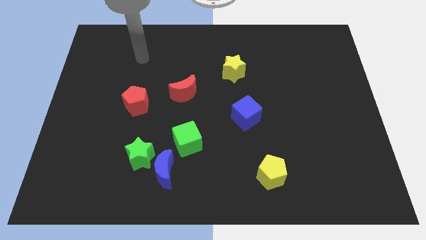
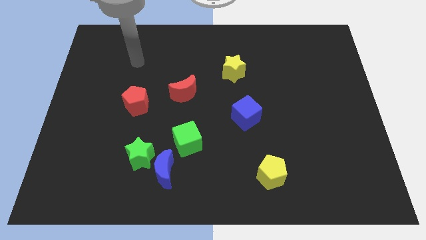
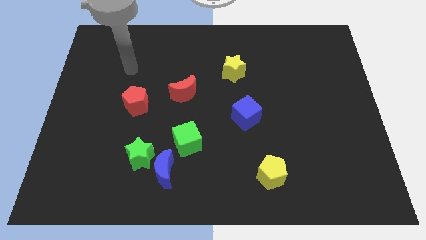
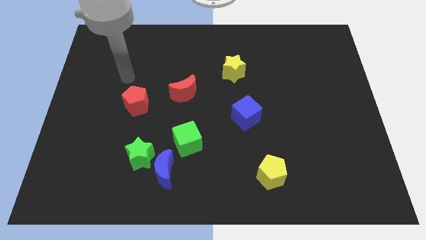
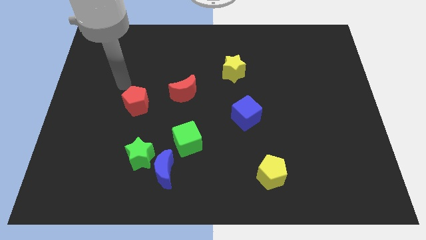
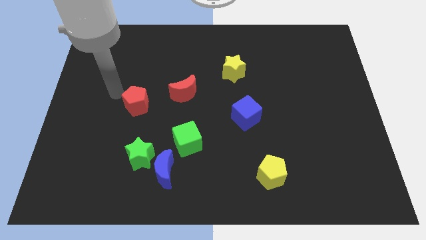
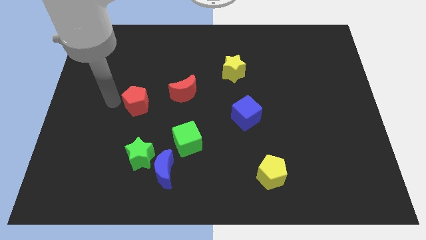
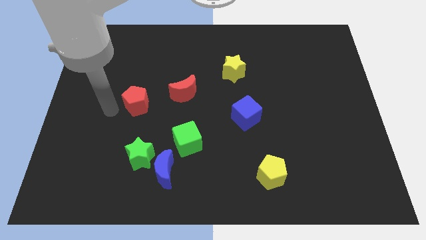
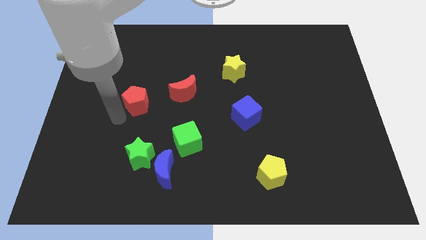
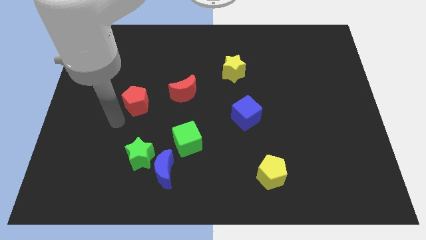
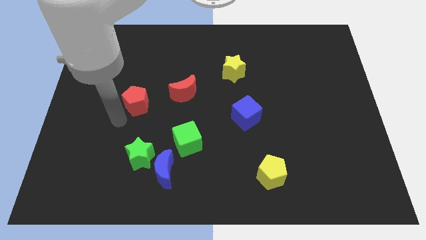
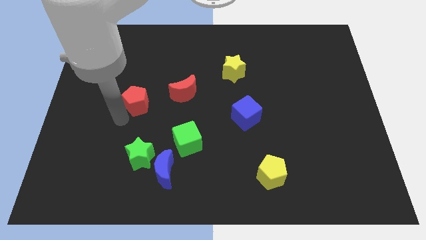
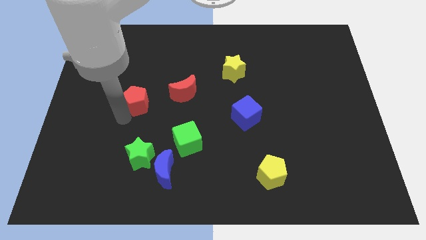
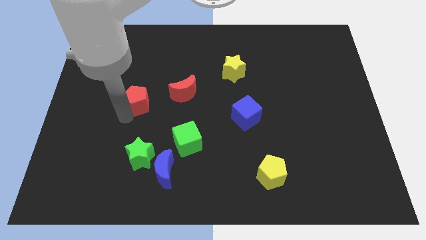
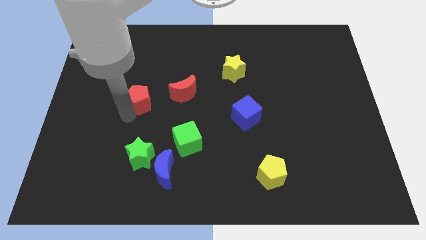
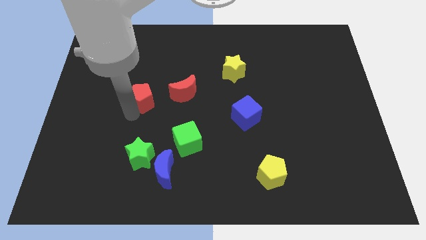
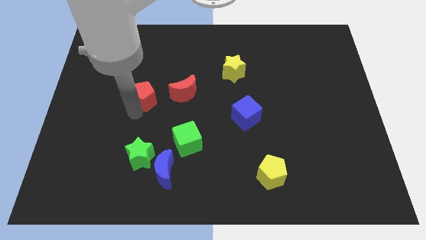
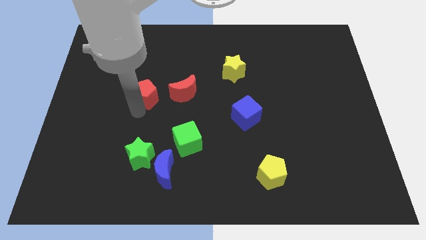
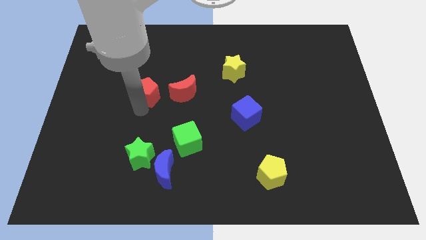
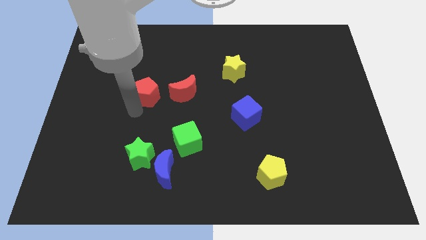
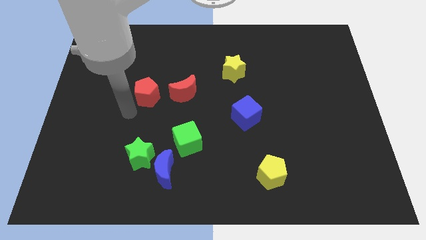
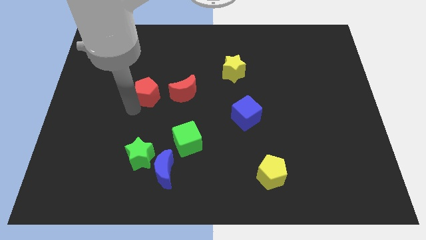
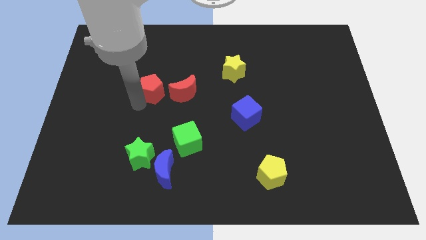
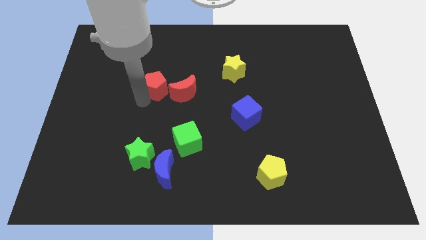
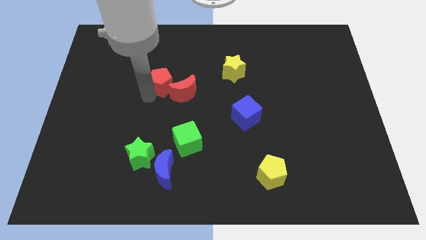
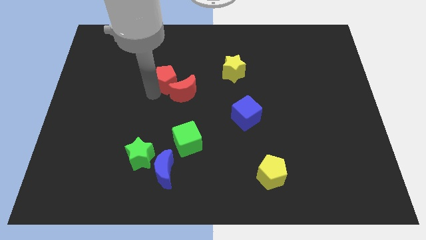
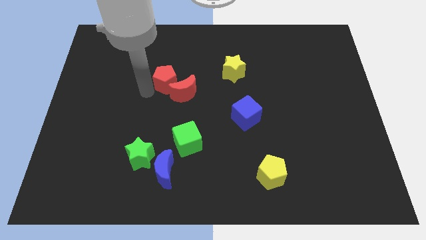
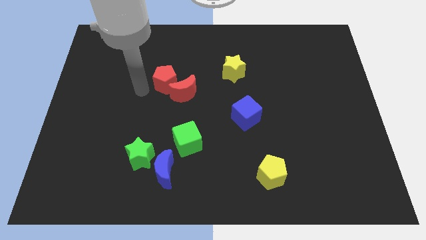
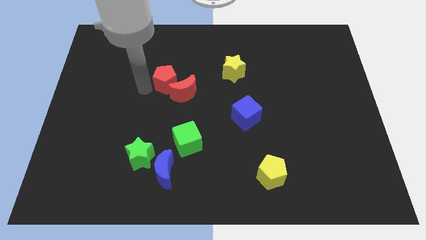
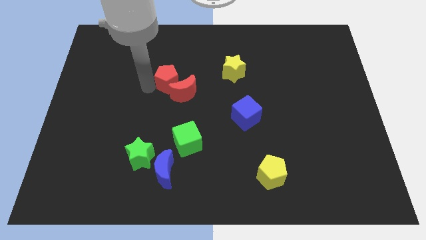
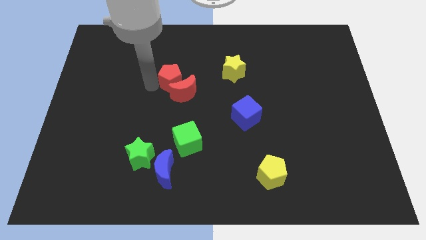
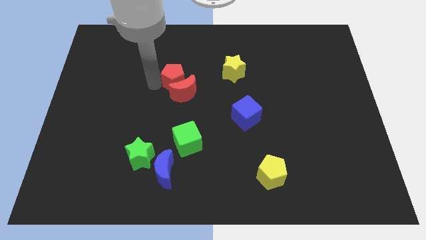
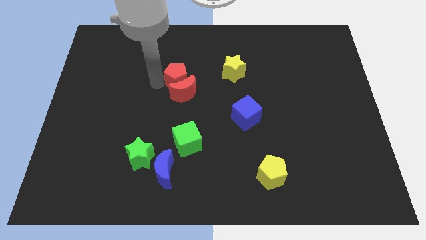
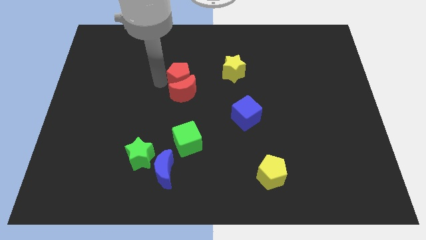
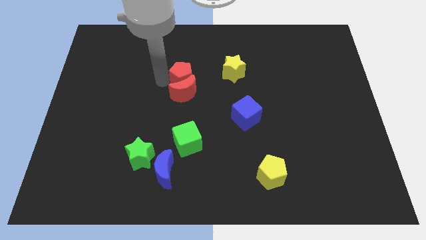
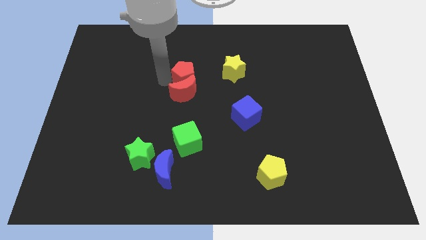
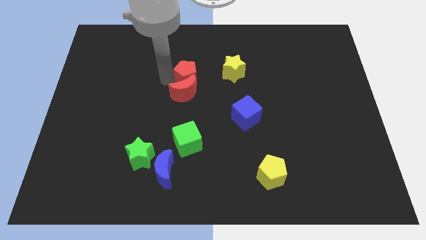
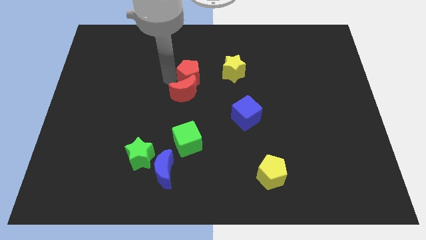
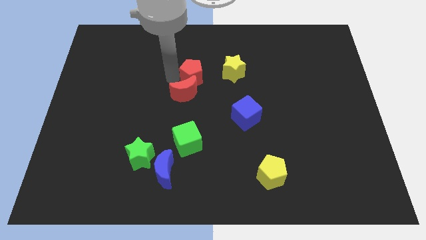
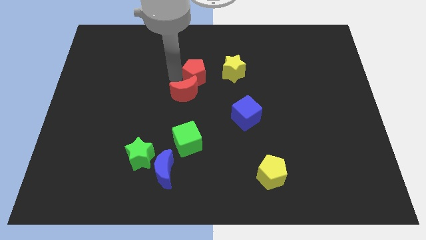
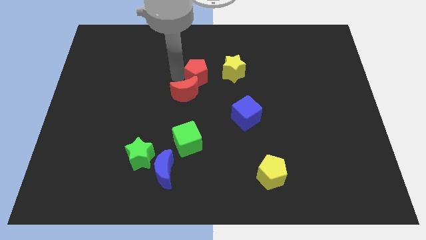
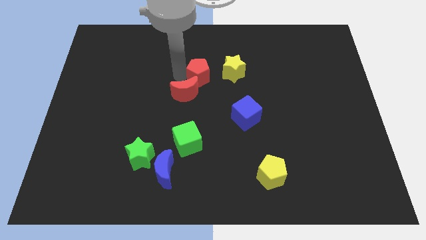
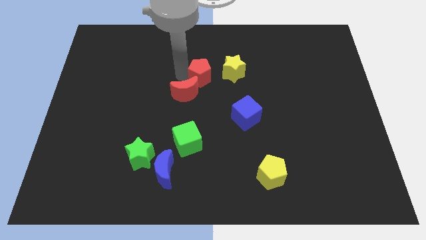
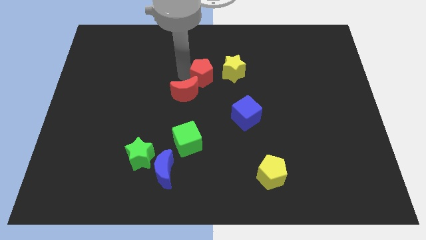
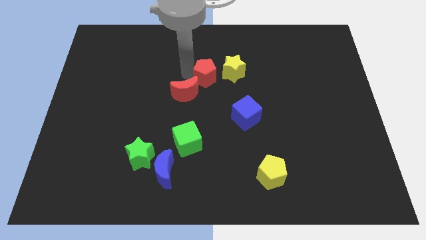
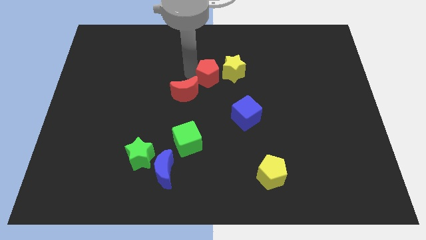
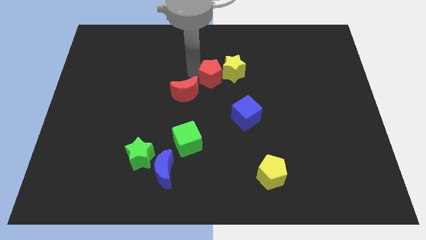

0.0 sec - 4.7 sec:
move the red pentagon next to the yellow star

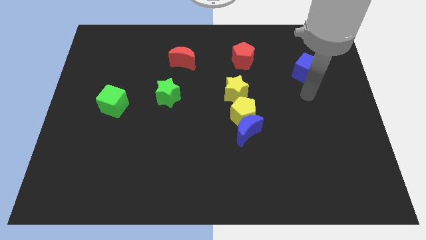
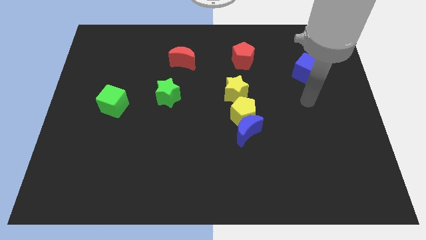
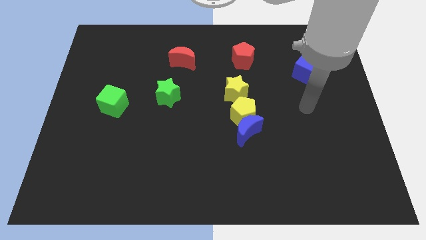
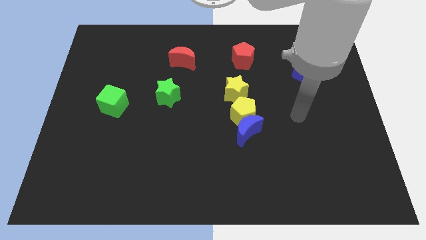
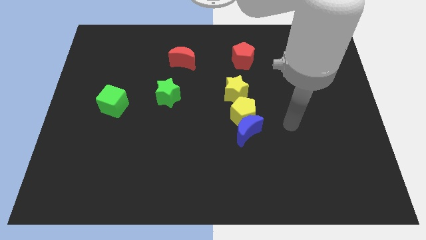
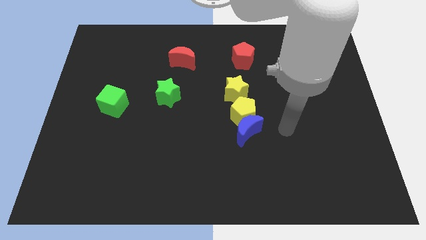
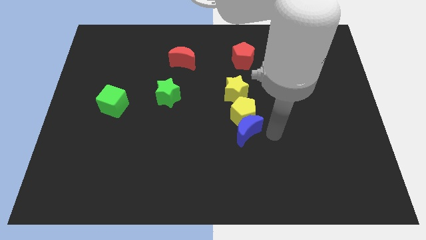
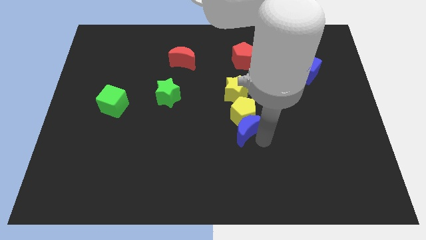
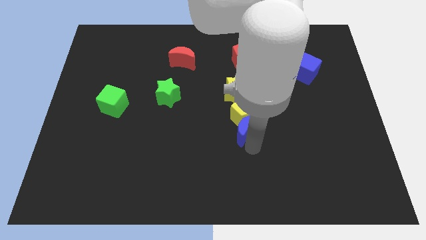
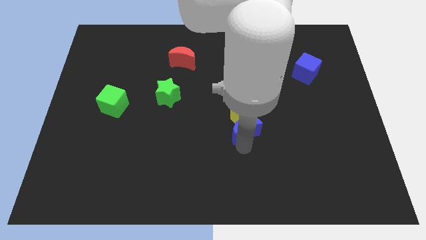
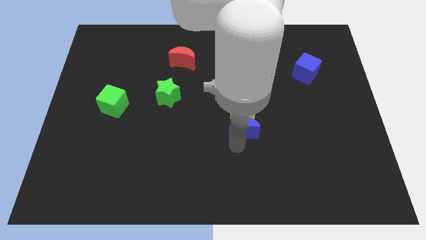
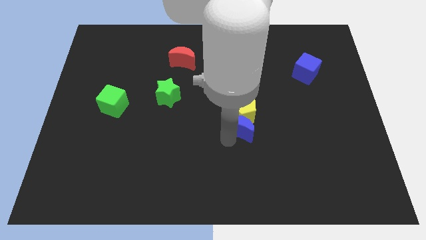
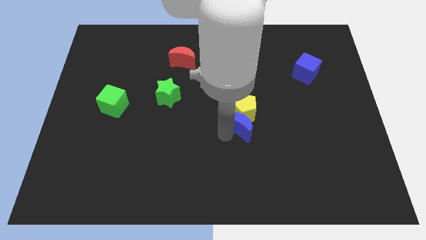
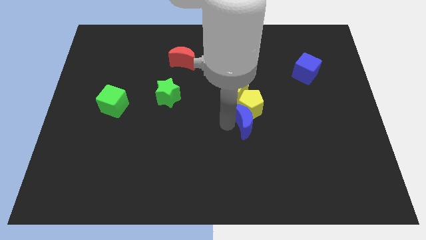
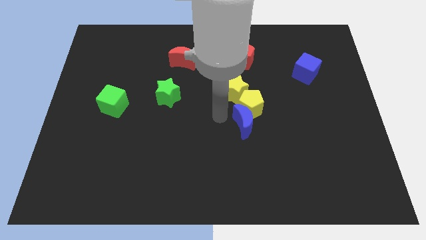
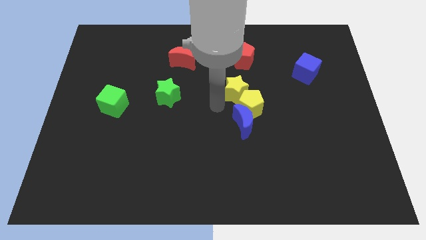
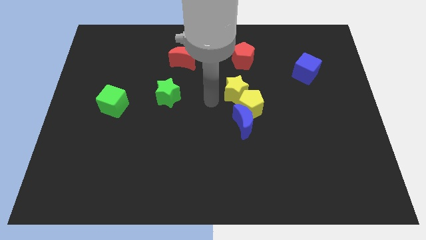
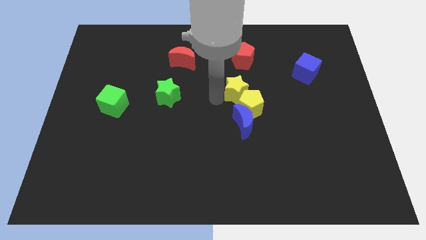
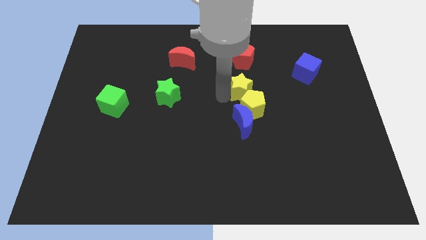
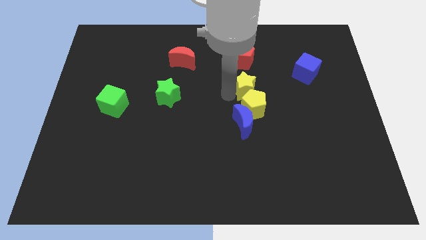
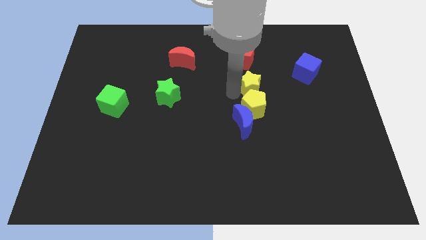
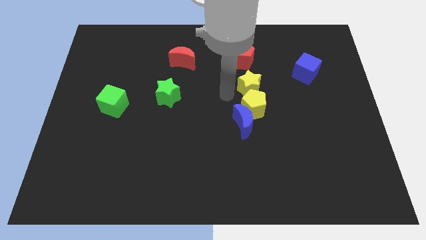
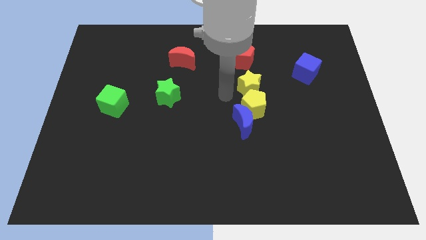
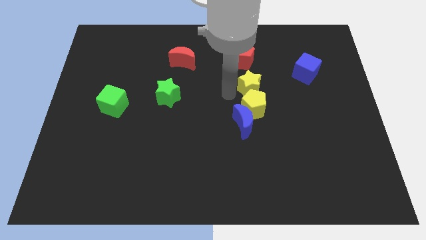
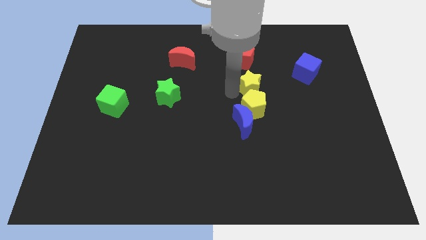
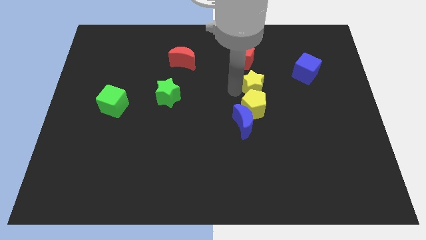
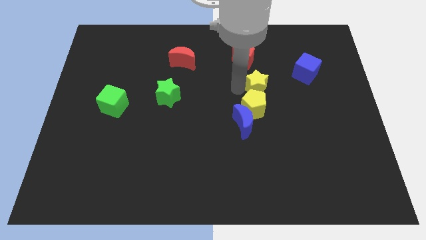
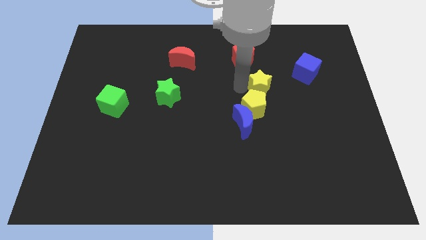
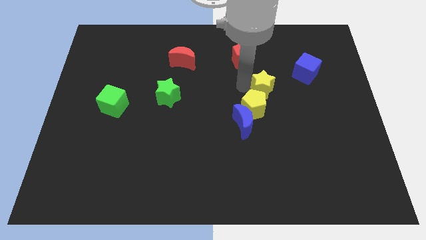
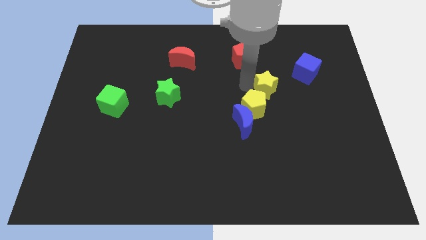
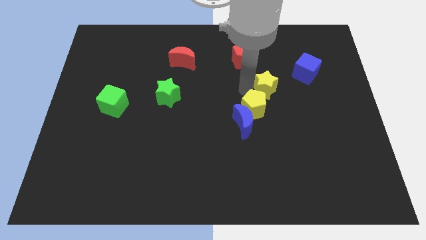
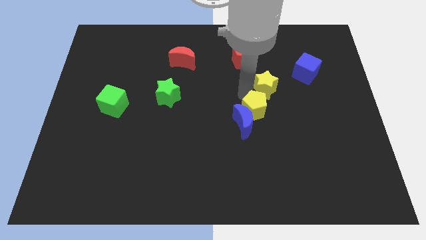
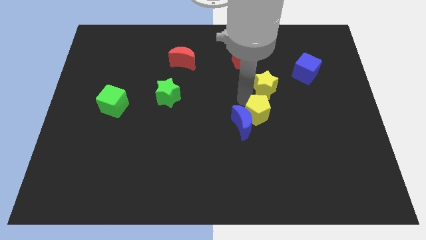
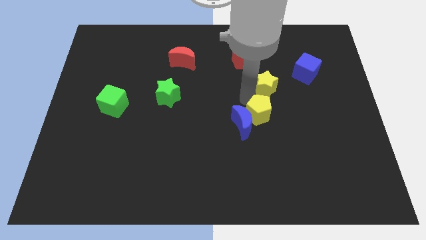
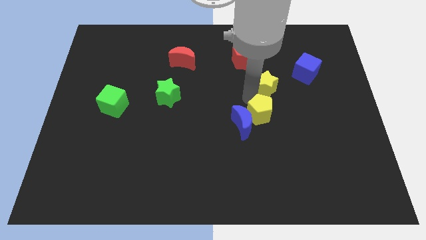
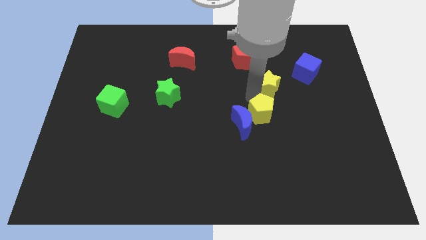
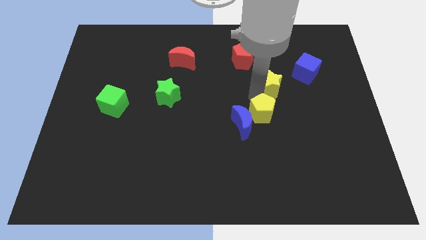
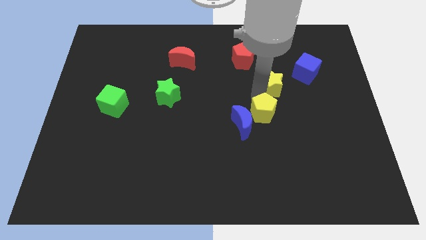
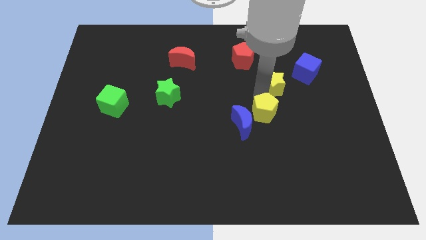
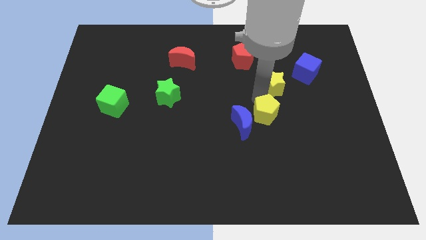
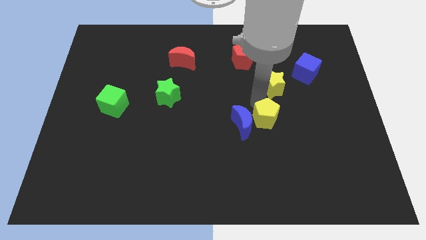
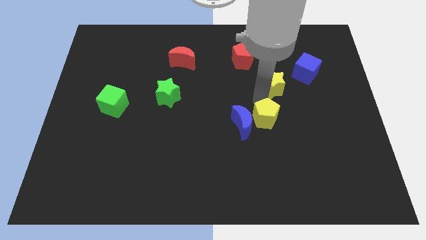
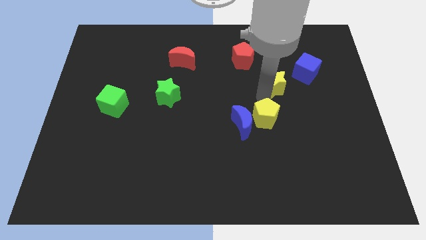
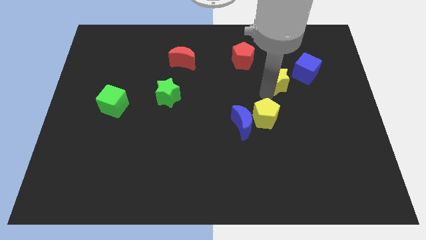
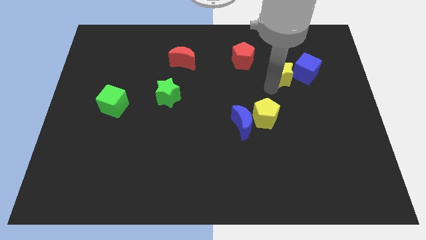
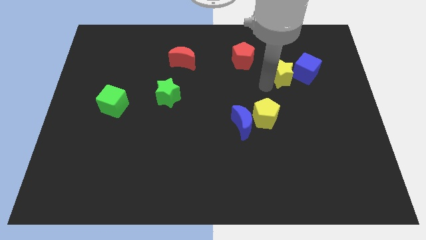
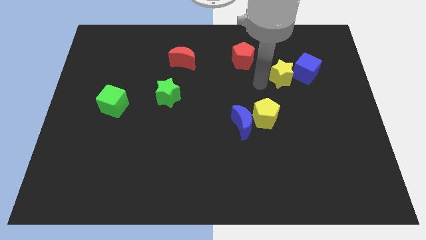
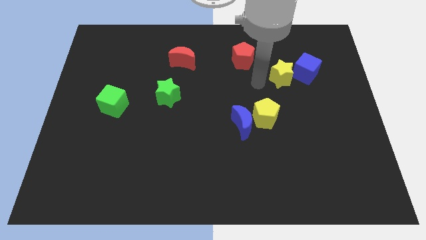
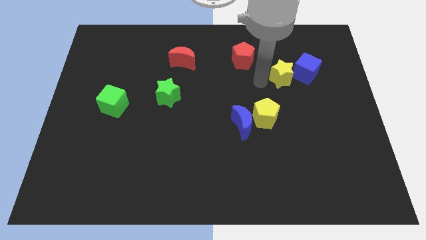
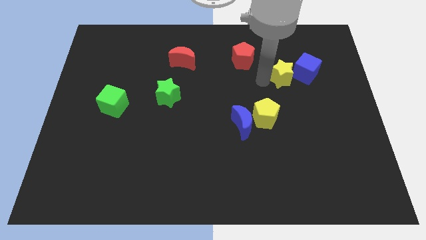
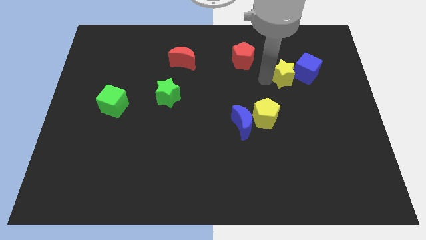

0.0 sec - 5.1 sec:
move the yellow star close to the blue cube
